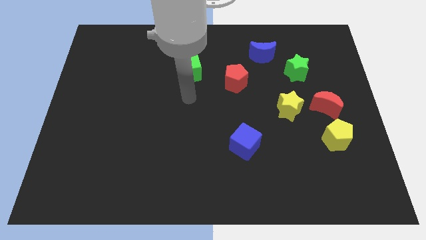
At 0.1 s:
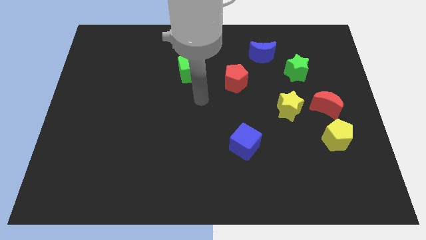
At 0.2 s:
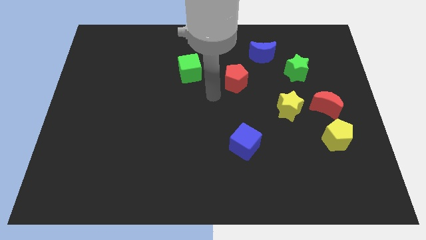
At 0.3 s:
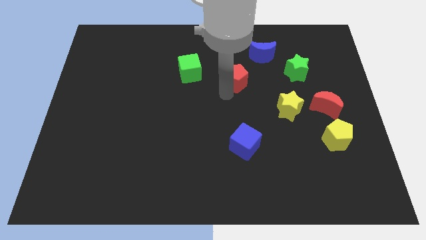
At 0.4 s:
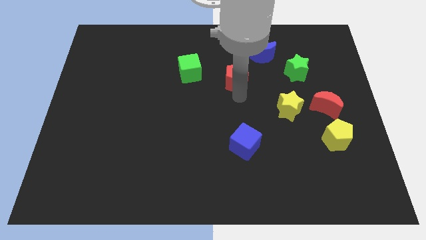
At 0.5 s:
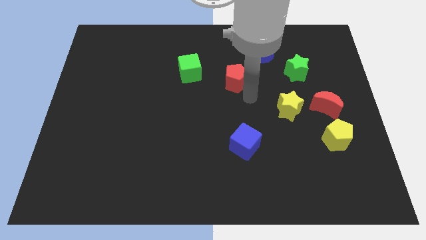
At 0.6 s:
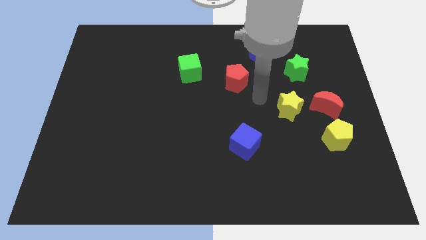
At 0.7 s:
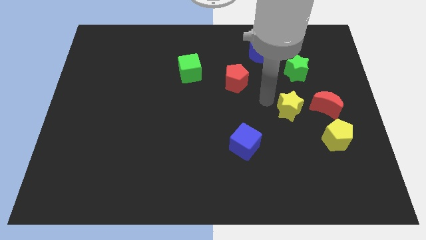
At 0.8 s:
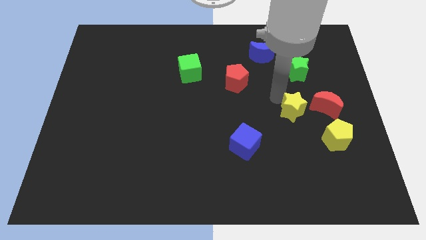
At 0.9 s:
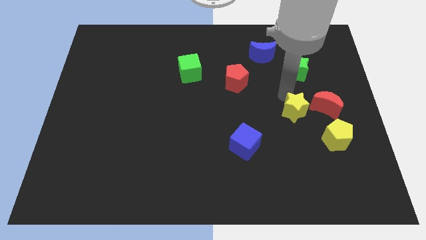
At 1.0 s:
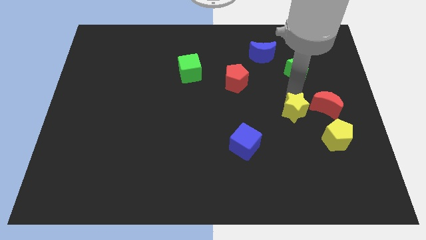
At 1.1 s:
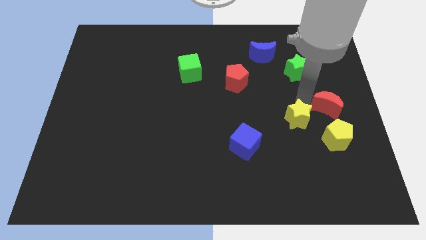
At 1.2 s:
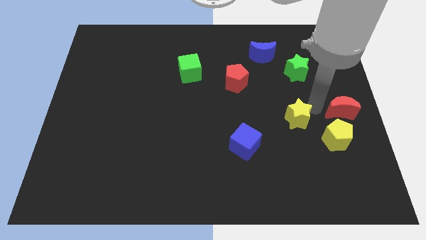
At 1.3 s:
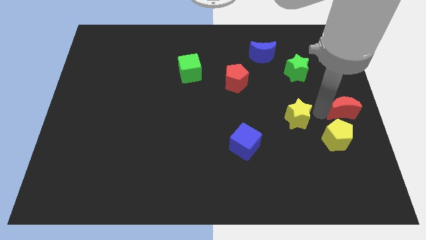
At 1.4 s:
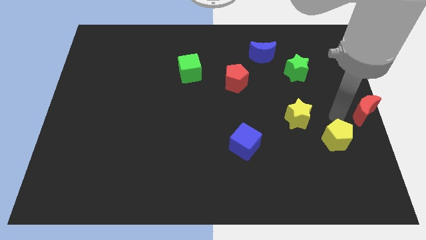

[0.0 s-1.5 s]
pull the yellow pentagon apart from the red moon

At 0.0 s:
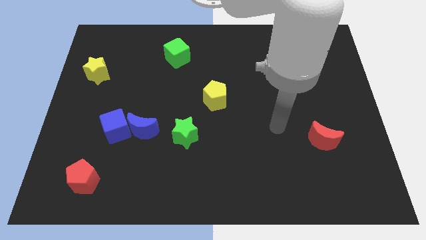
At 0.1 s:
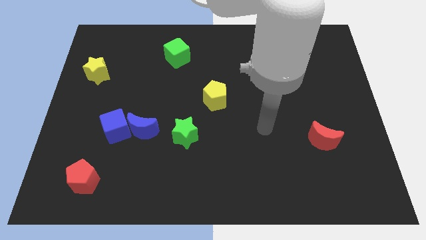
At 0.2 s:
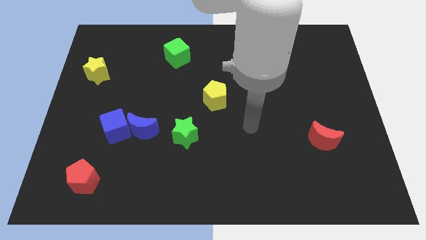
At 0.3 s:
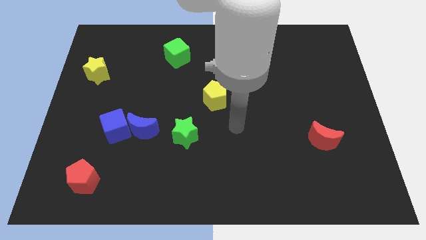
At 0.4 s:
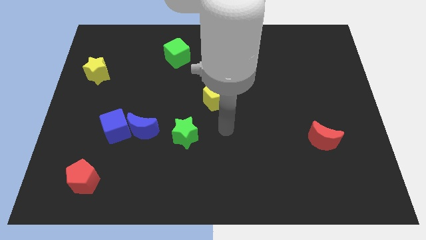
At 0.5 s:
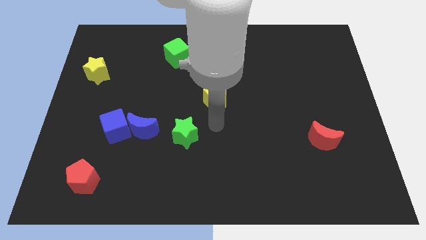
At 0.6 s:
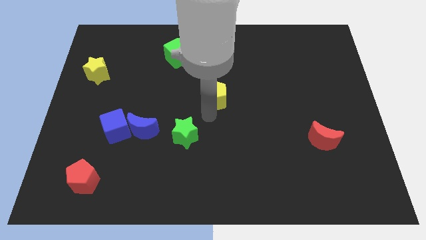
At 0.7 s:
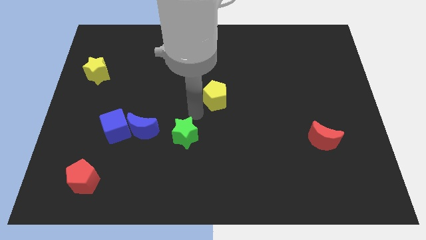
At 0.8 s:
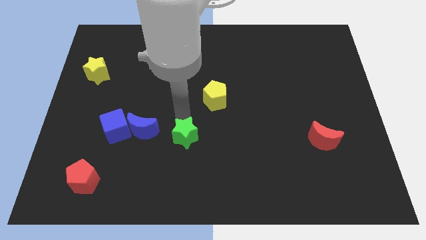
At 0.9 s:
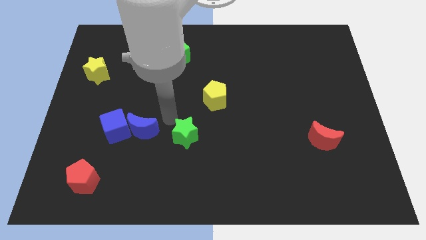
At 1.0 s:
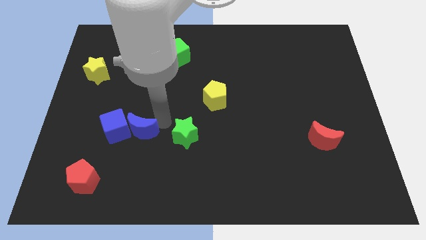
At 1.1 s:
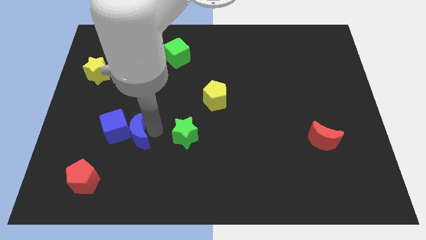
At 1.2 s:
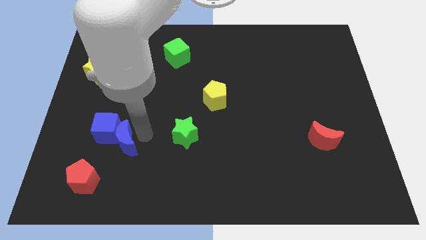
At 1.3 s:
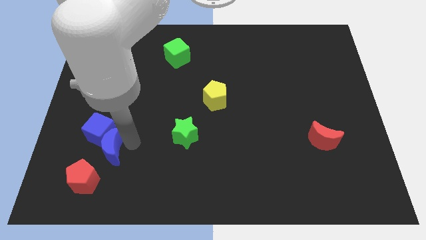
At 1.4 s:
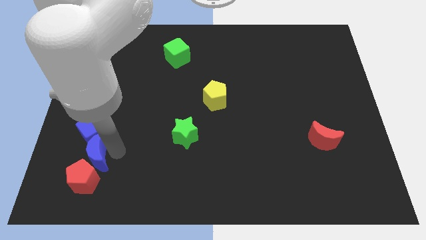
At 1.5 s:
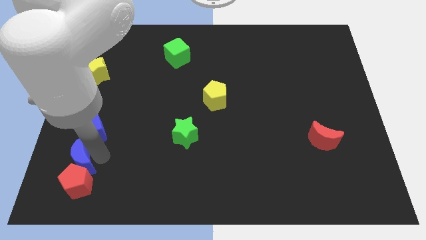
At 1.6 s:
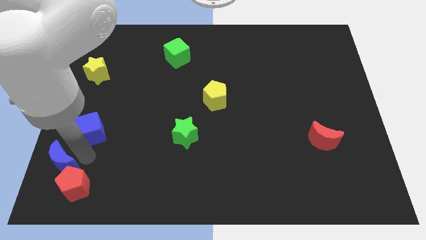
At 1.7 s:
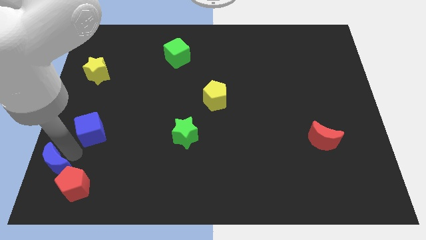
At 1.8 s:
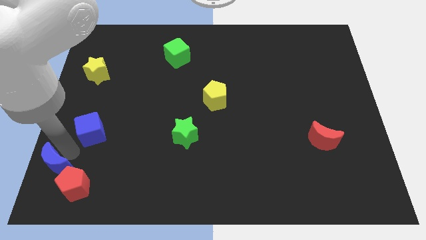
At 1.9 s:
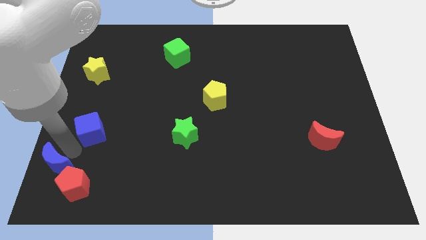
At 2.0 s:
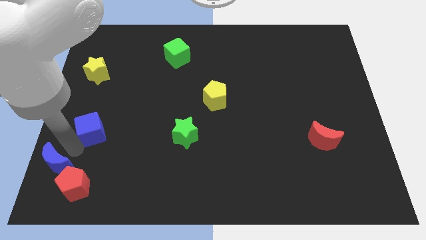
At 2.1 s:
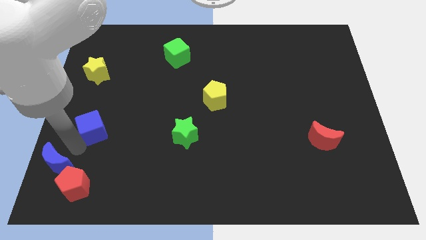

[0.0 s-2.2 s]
pull the blue cube apart from the blue moon

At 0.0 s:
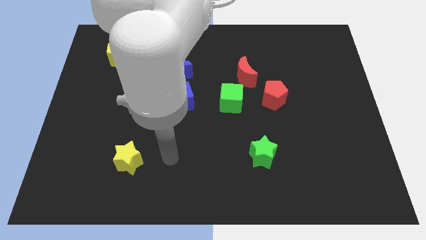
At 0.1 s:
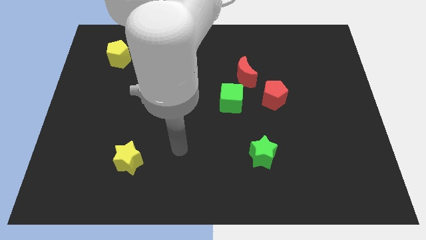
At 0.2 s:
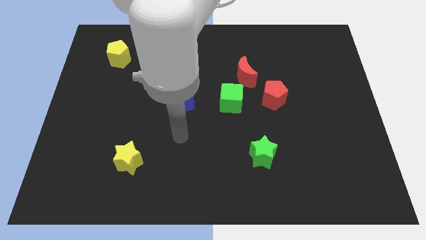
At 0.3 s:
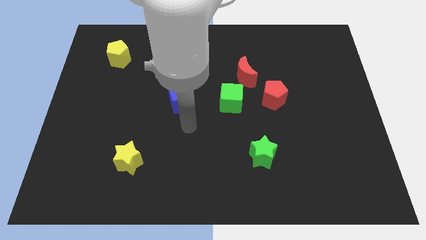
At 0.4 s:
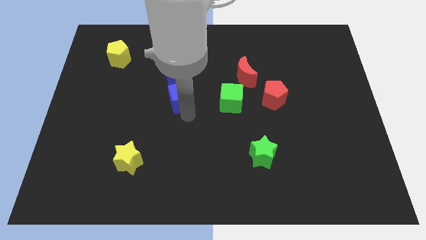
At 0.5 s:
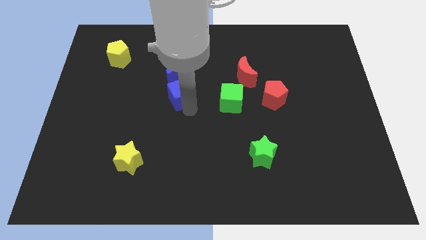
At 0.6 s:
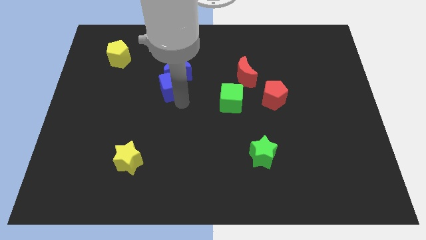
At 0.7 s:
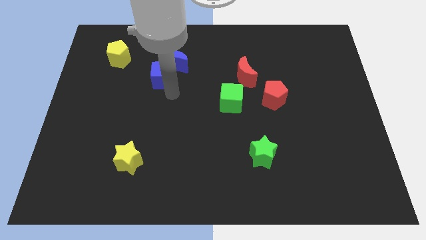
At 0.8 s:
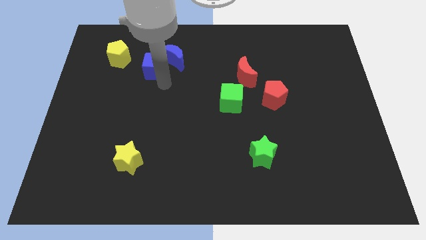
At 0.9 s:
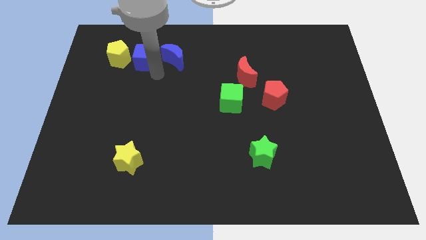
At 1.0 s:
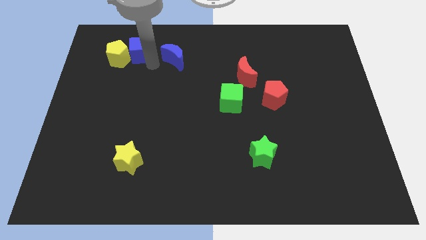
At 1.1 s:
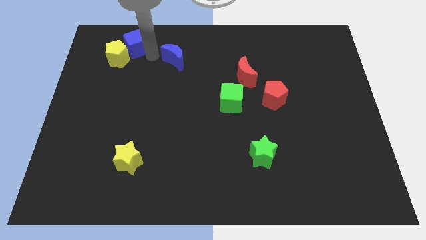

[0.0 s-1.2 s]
move the blue moon away from the blue cube

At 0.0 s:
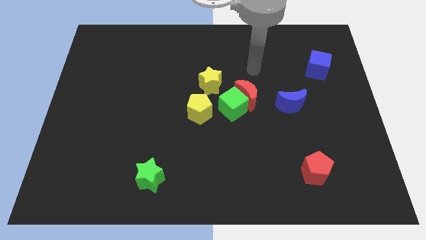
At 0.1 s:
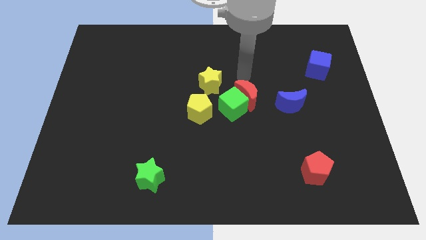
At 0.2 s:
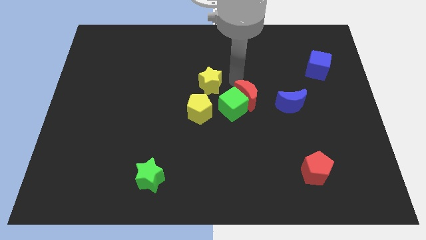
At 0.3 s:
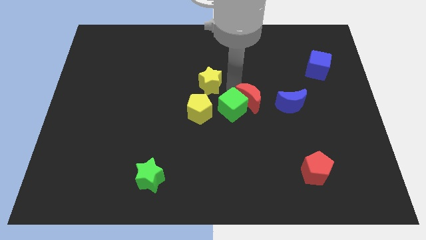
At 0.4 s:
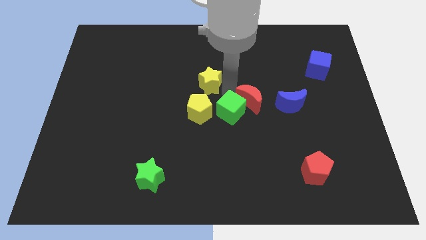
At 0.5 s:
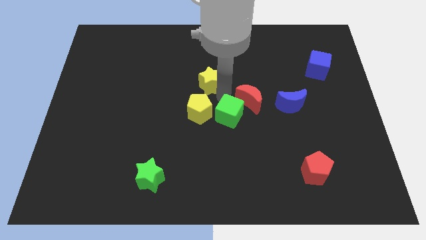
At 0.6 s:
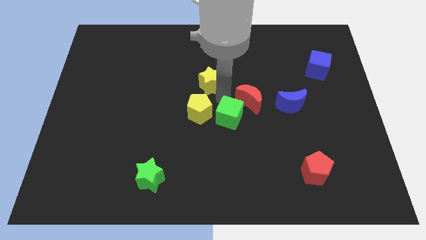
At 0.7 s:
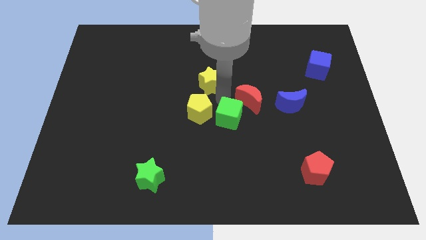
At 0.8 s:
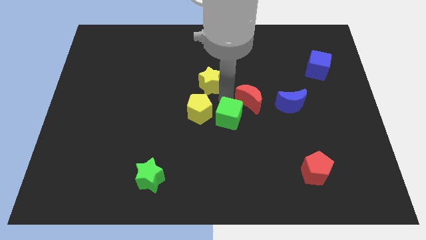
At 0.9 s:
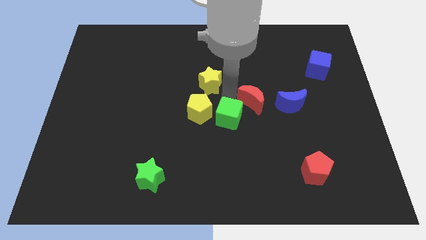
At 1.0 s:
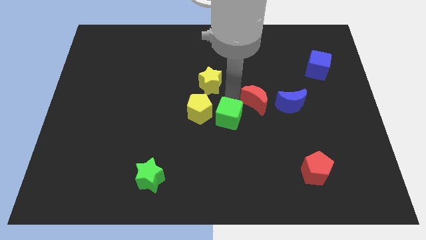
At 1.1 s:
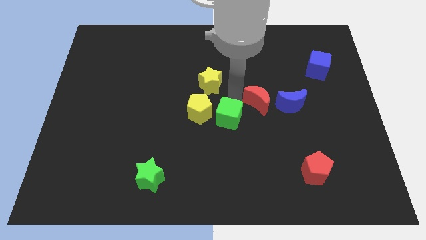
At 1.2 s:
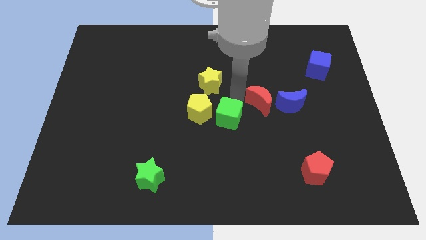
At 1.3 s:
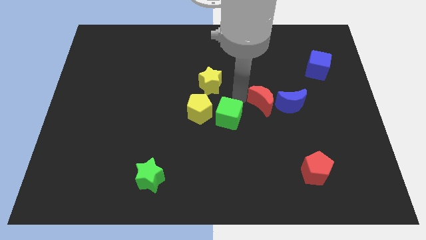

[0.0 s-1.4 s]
pull the red moon apart from the green cube and yellow star

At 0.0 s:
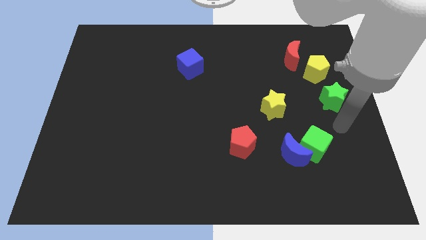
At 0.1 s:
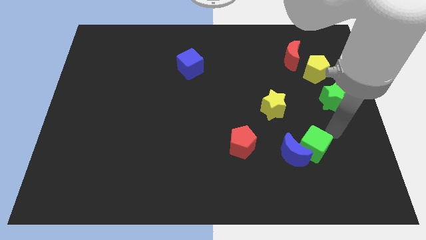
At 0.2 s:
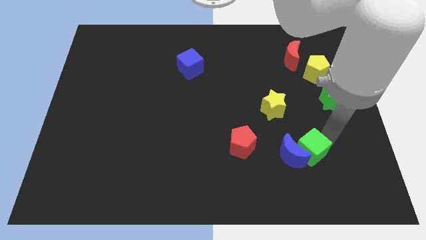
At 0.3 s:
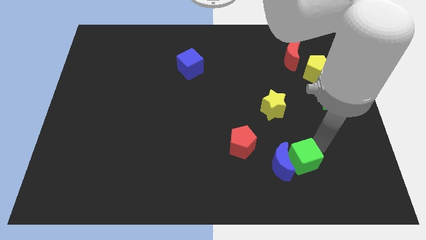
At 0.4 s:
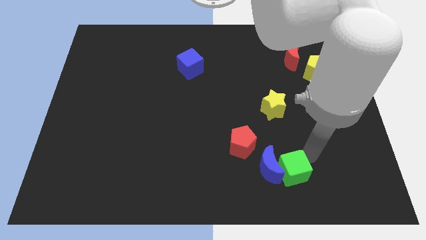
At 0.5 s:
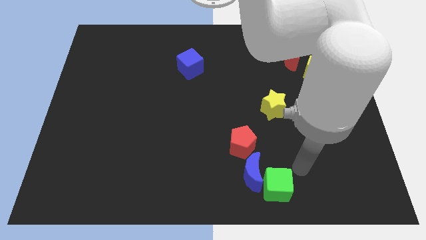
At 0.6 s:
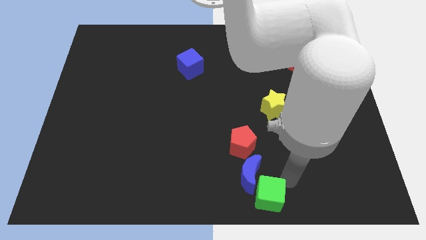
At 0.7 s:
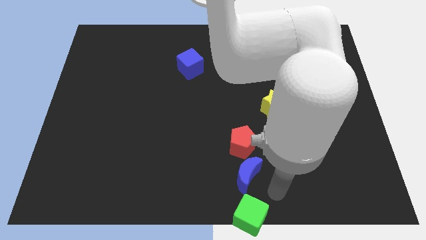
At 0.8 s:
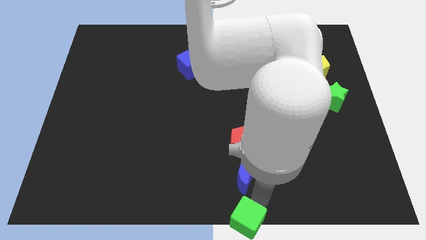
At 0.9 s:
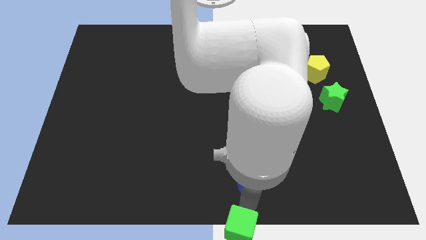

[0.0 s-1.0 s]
pull the blue moon apart from the green cube

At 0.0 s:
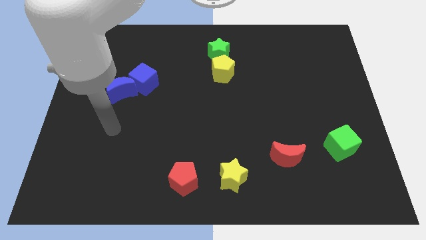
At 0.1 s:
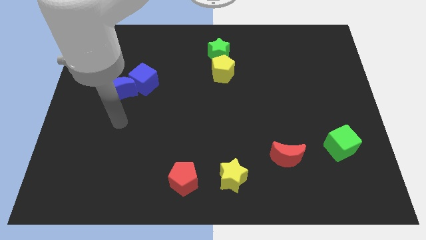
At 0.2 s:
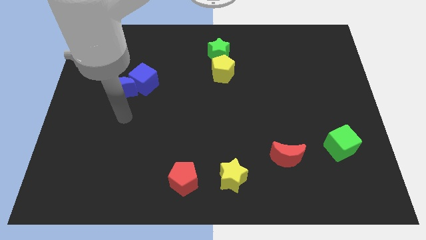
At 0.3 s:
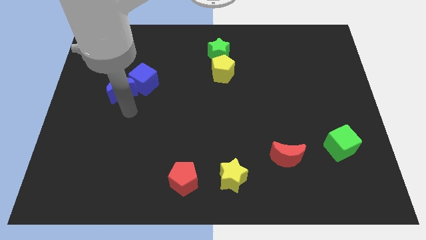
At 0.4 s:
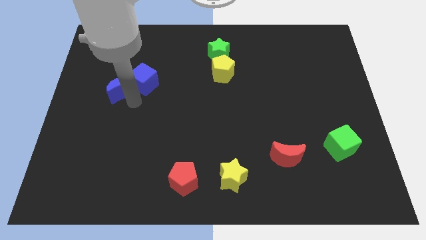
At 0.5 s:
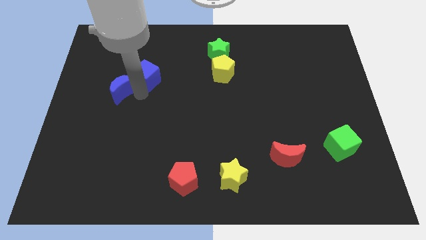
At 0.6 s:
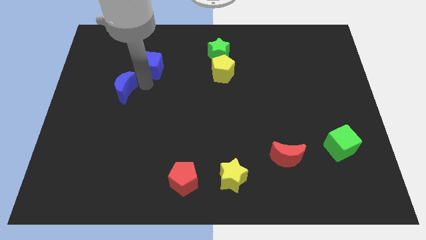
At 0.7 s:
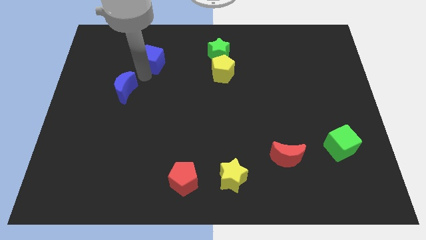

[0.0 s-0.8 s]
pull the blue moon apart from the blue cube

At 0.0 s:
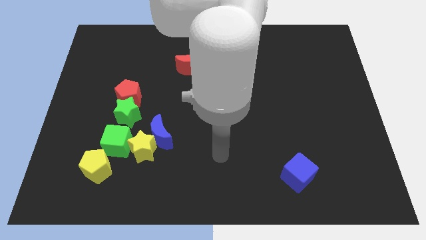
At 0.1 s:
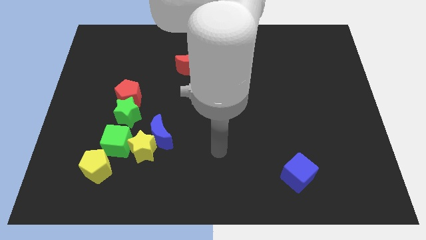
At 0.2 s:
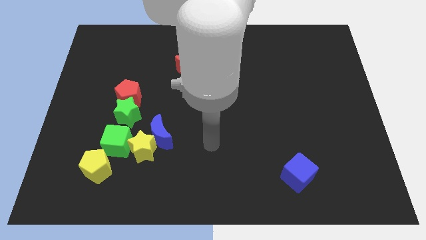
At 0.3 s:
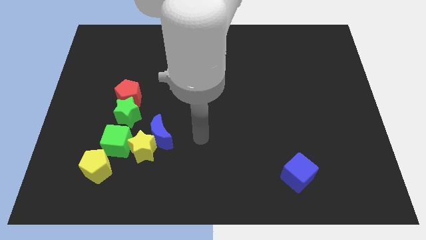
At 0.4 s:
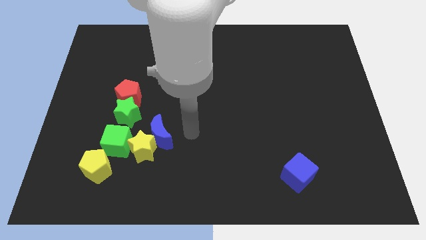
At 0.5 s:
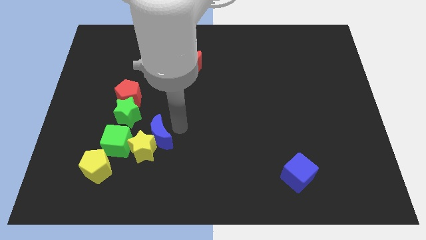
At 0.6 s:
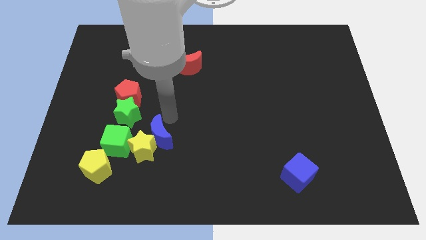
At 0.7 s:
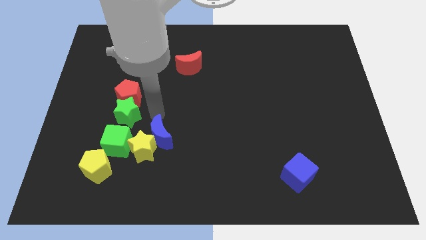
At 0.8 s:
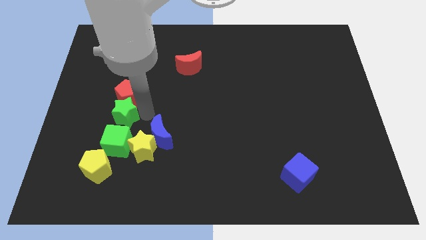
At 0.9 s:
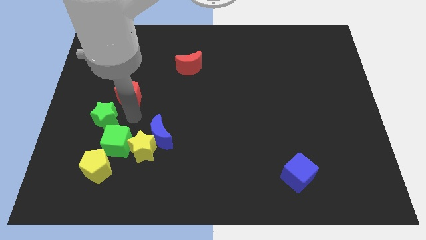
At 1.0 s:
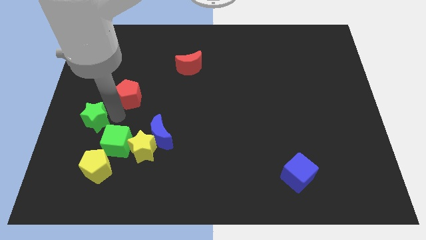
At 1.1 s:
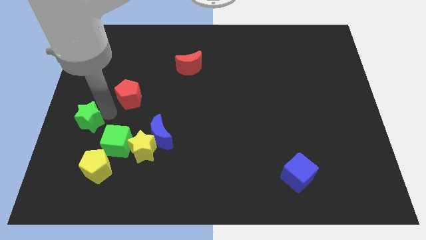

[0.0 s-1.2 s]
pull the red pentagon apart from the green star
